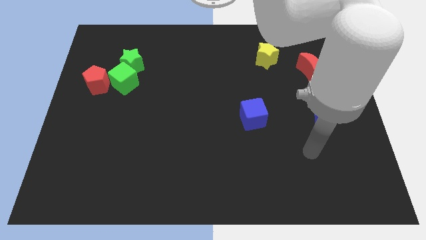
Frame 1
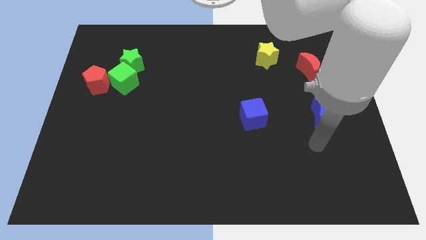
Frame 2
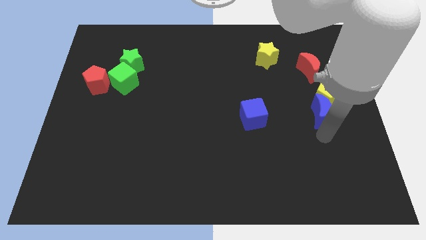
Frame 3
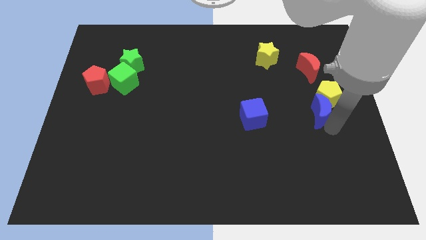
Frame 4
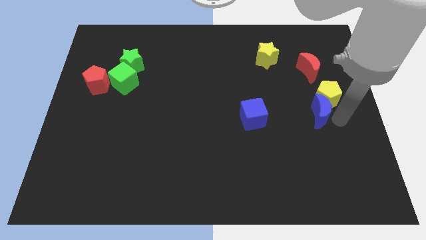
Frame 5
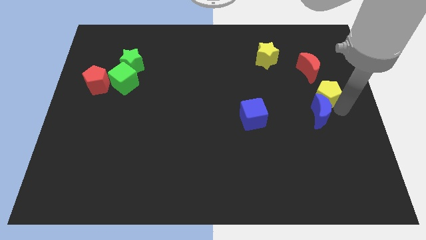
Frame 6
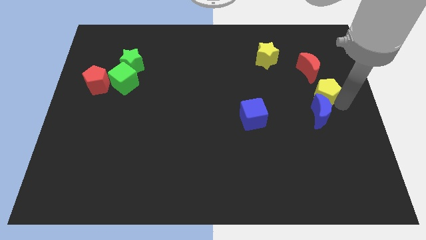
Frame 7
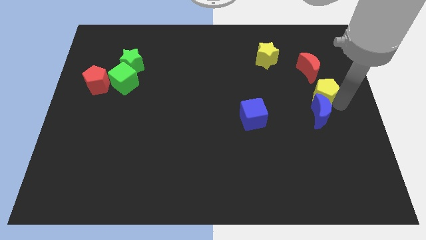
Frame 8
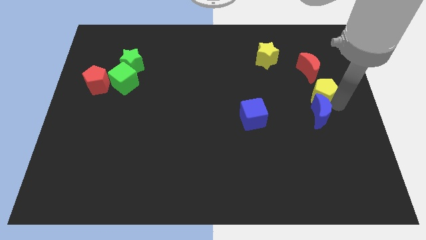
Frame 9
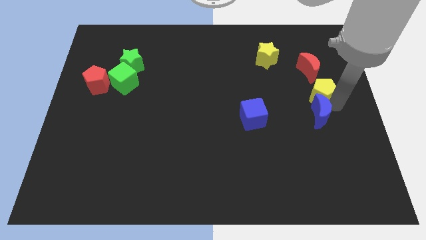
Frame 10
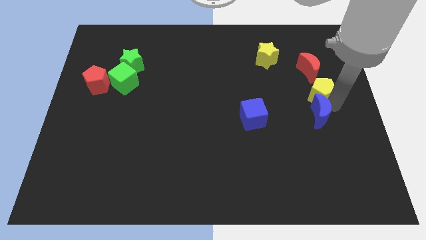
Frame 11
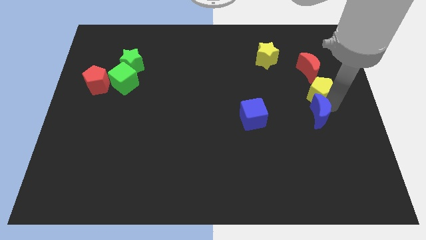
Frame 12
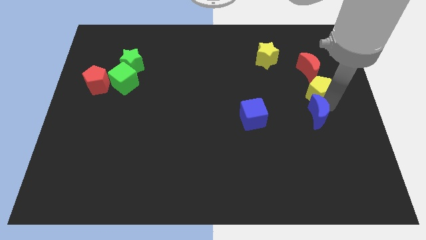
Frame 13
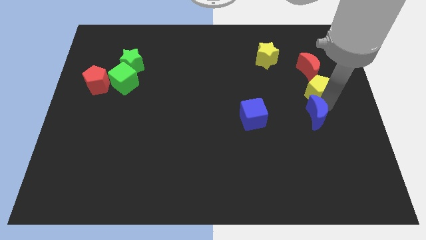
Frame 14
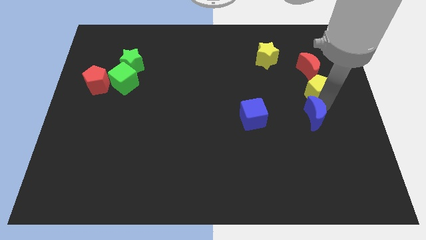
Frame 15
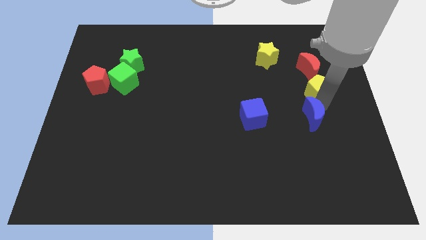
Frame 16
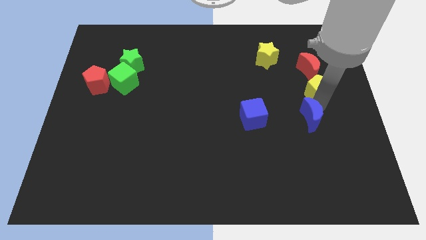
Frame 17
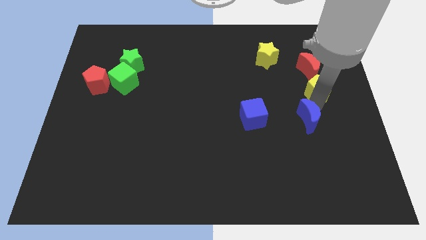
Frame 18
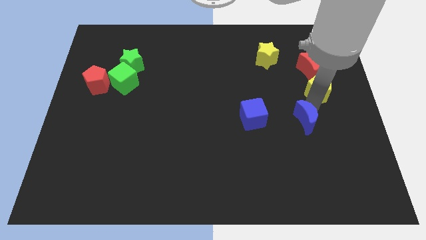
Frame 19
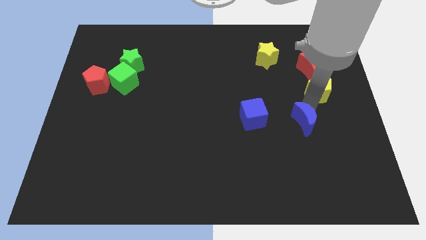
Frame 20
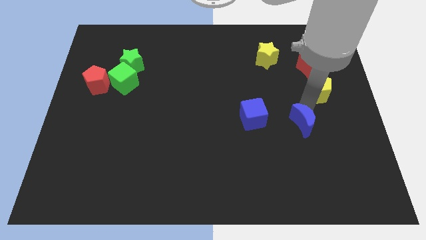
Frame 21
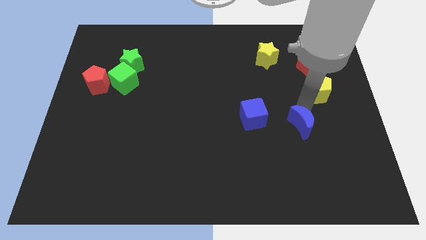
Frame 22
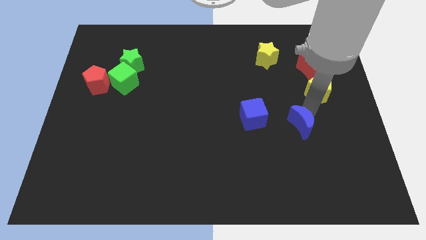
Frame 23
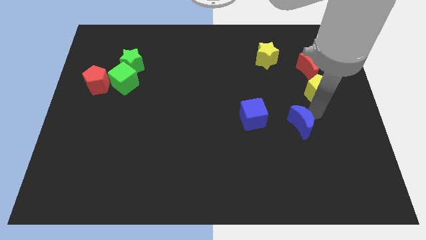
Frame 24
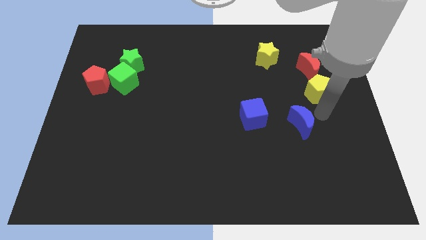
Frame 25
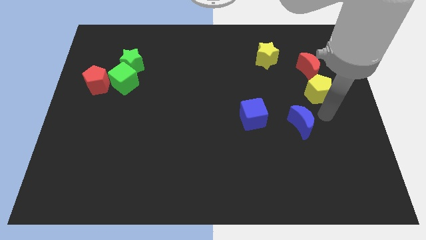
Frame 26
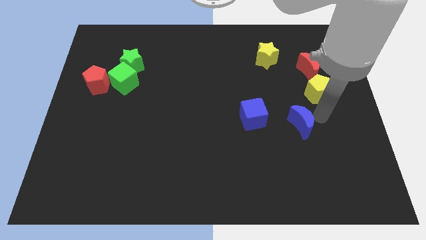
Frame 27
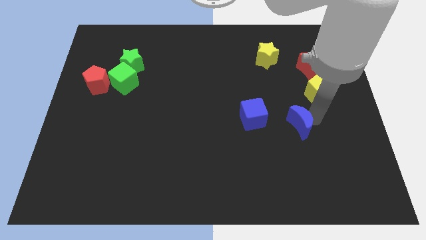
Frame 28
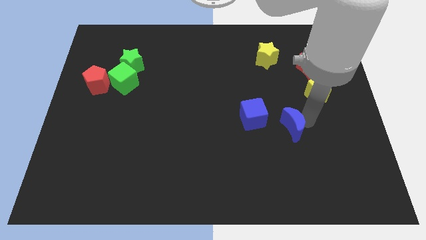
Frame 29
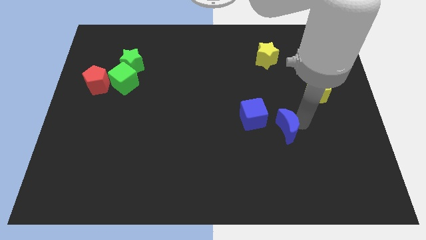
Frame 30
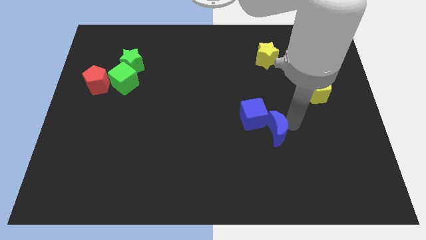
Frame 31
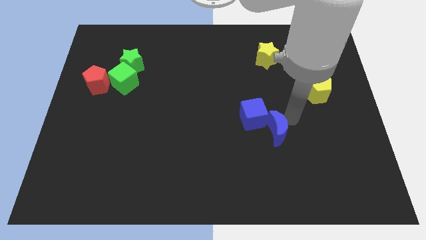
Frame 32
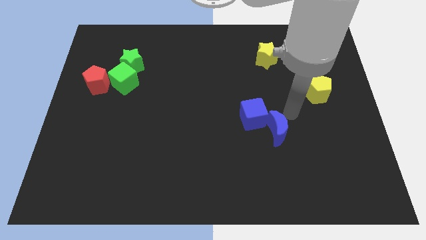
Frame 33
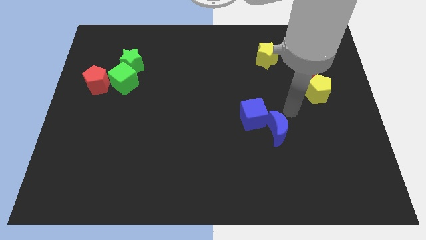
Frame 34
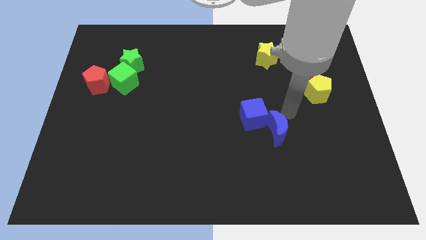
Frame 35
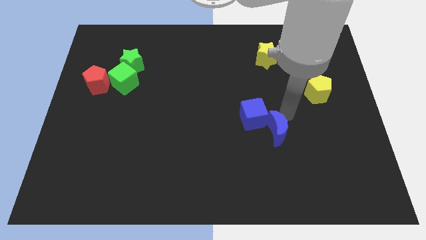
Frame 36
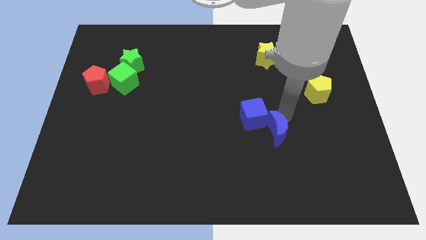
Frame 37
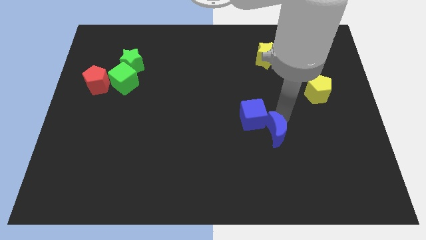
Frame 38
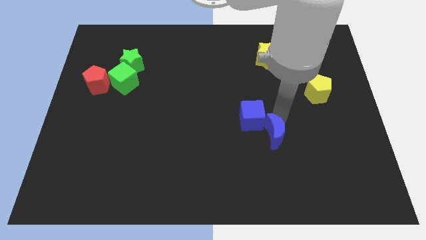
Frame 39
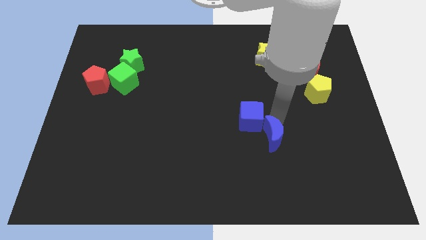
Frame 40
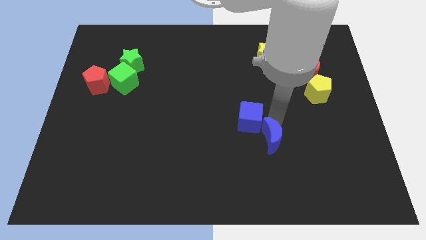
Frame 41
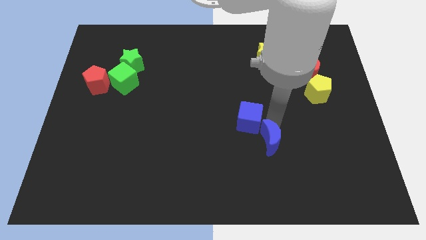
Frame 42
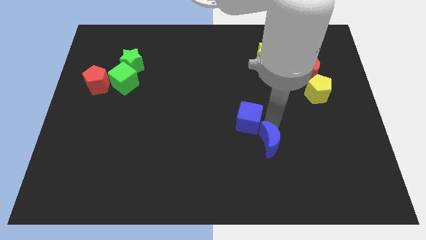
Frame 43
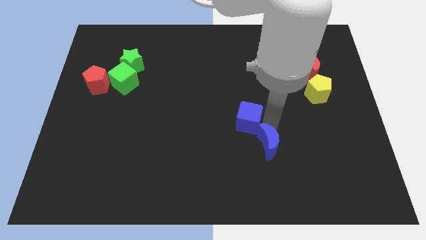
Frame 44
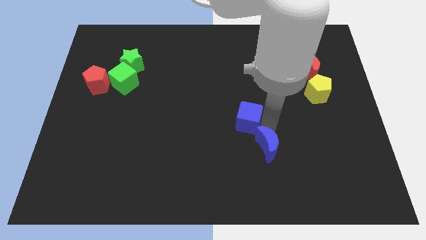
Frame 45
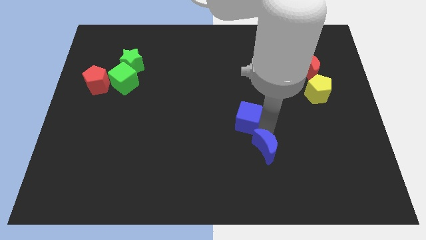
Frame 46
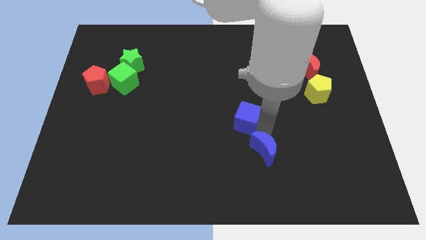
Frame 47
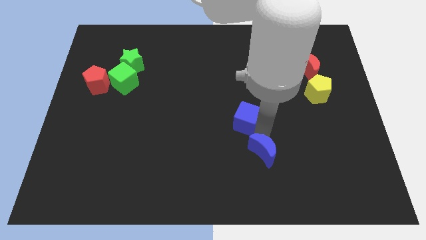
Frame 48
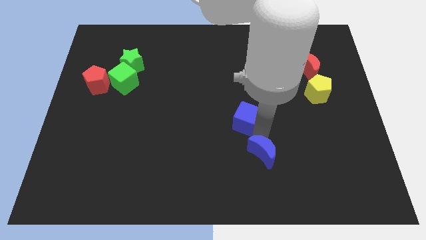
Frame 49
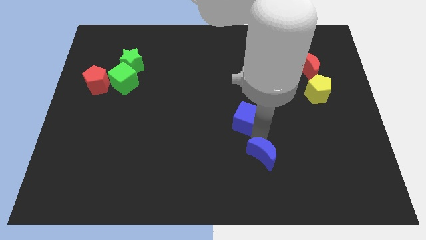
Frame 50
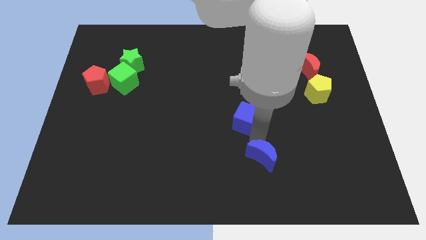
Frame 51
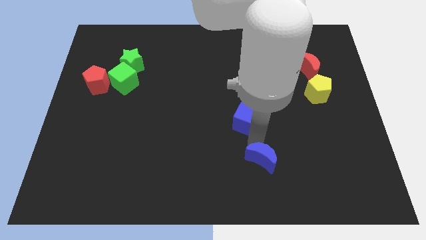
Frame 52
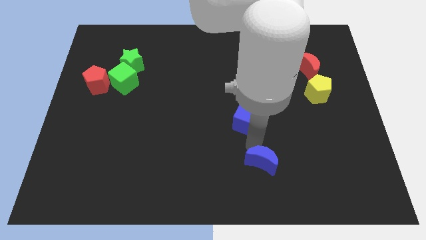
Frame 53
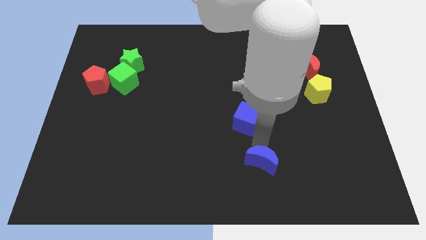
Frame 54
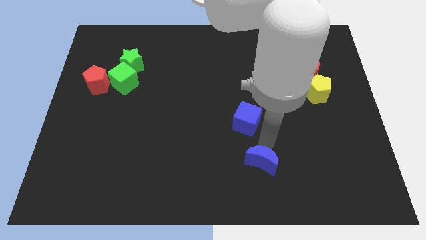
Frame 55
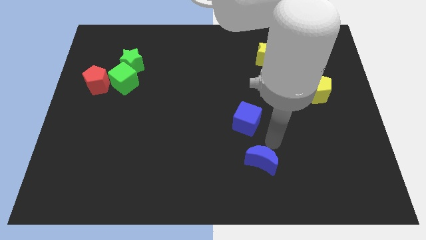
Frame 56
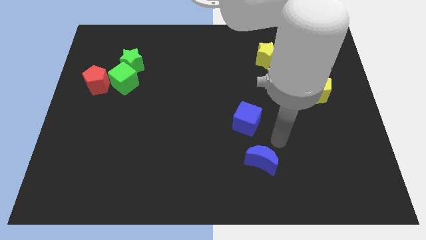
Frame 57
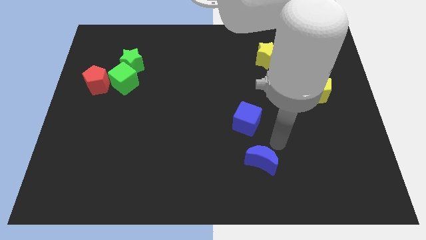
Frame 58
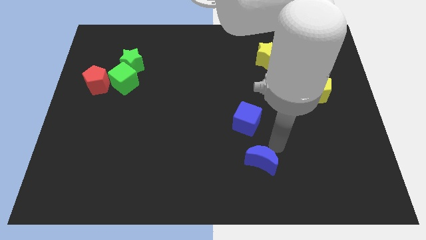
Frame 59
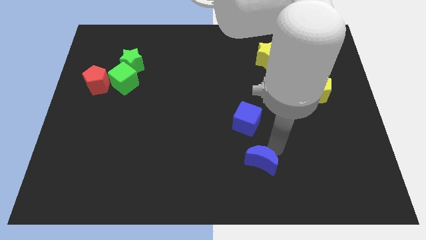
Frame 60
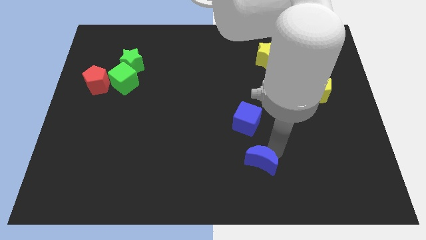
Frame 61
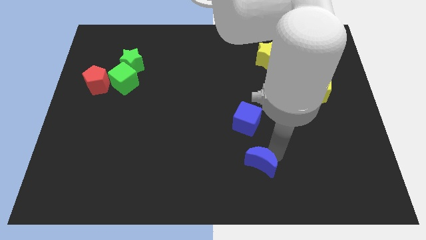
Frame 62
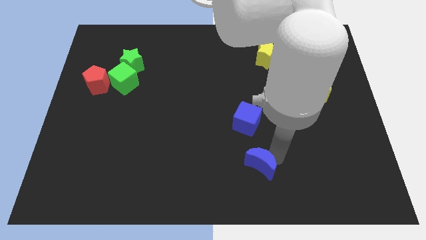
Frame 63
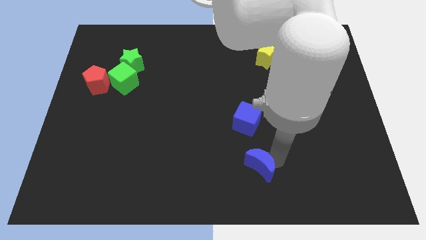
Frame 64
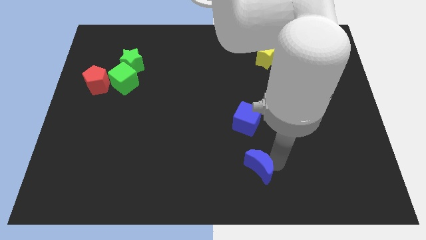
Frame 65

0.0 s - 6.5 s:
slide the blue moon to the bottom side

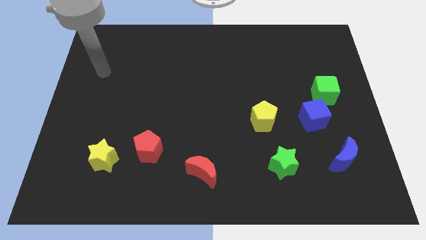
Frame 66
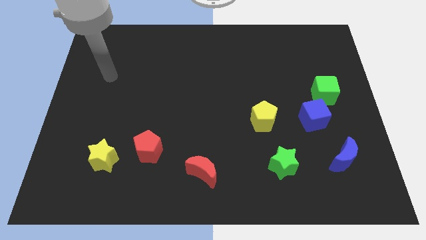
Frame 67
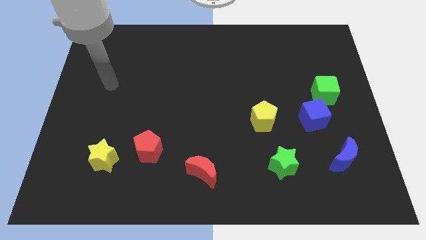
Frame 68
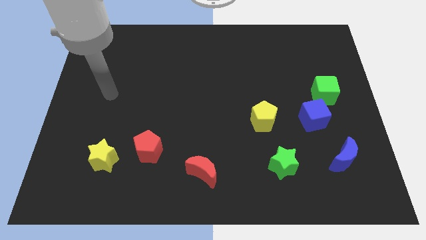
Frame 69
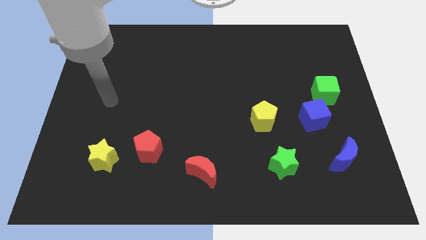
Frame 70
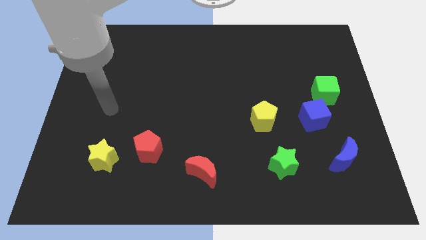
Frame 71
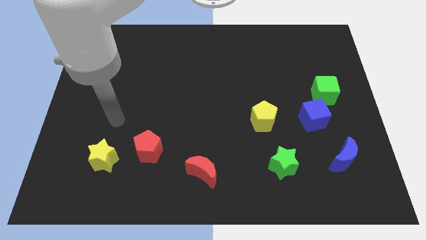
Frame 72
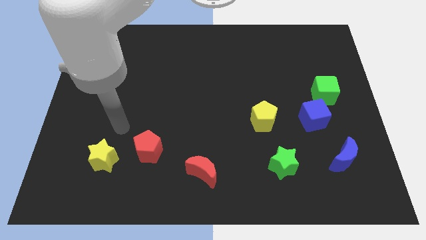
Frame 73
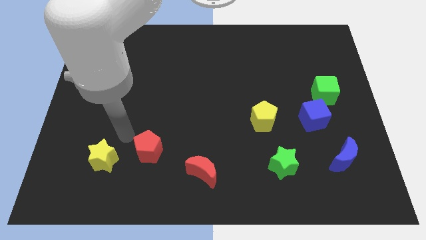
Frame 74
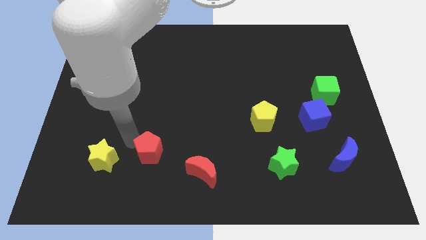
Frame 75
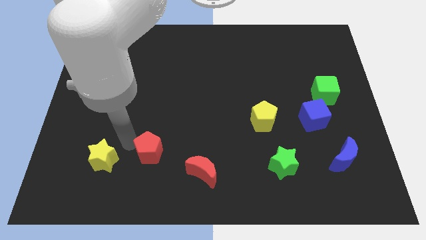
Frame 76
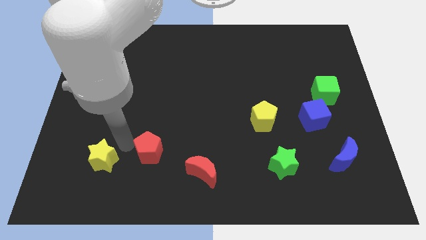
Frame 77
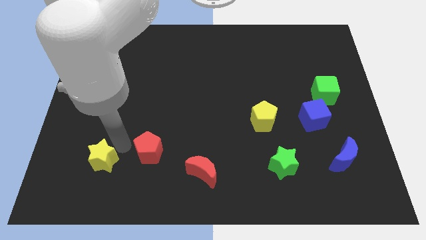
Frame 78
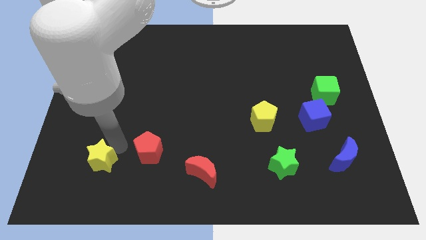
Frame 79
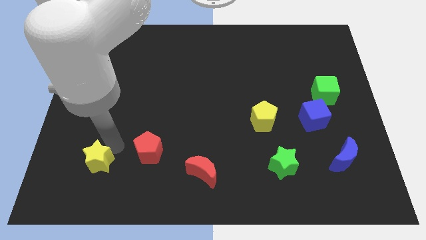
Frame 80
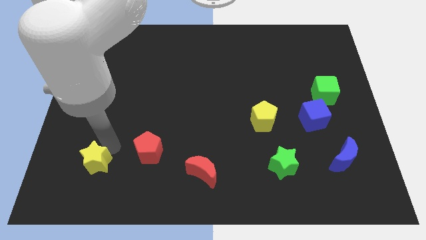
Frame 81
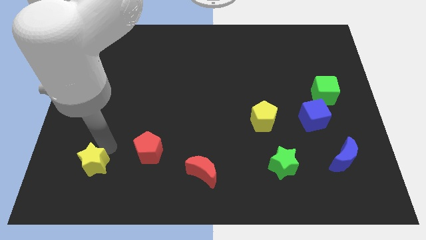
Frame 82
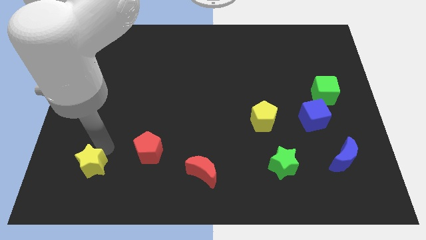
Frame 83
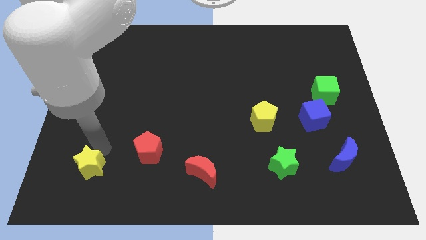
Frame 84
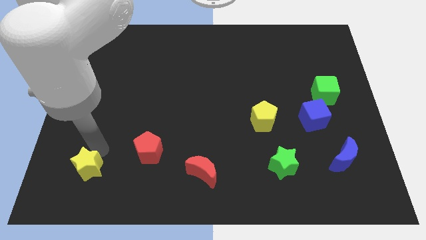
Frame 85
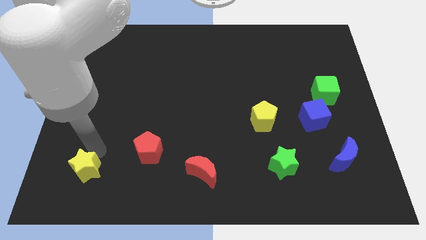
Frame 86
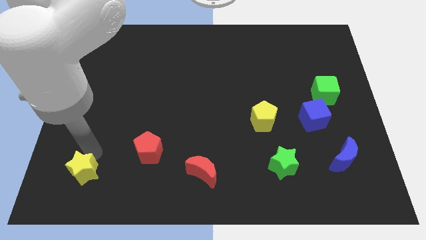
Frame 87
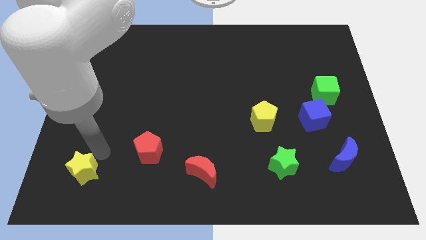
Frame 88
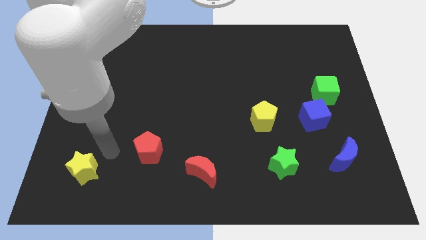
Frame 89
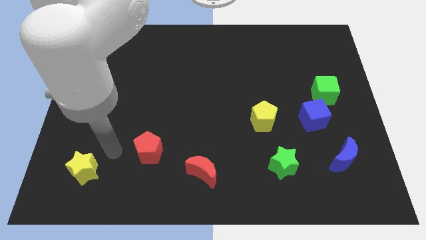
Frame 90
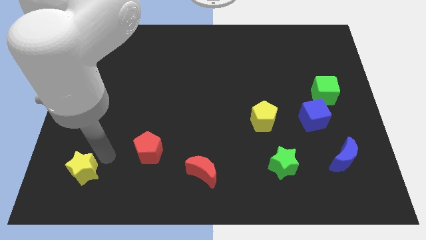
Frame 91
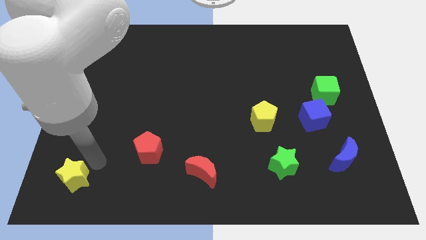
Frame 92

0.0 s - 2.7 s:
move the yellow star to the lower left corner
